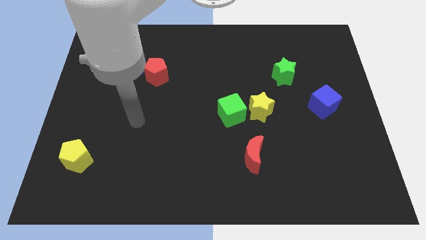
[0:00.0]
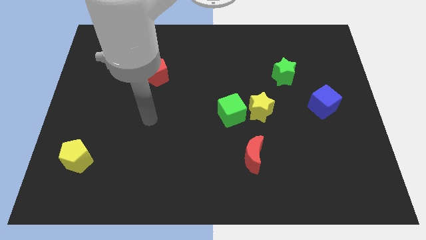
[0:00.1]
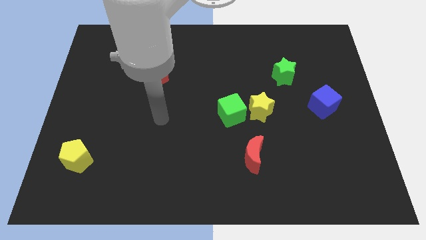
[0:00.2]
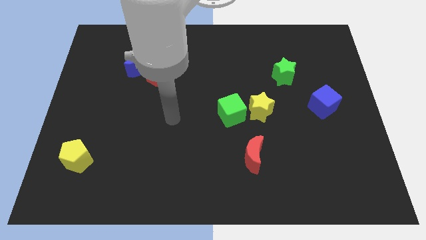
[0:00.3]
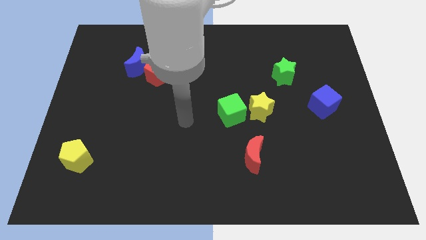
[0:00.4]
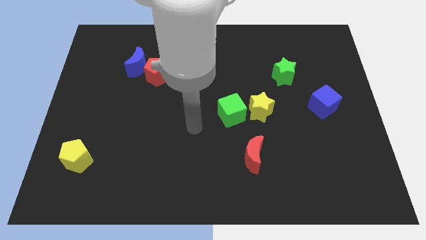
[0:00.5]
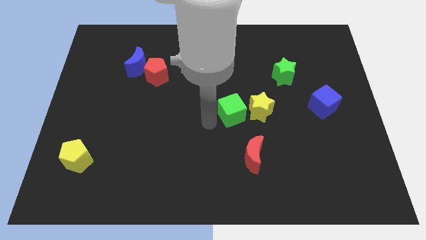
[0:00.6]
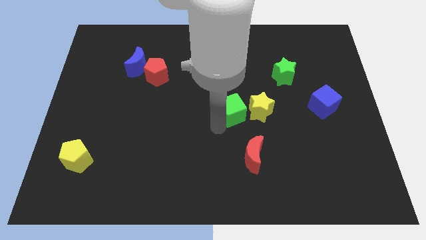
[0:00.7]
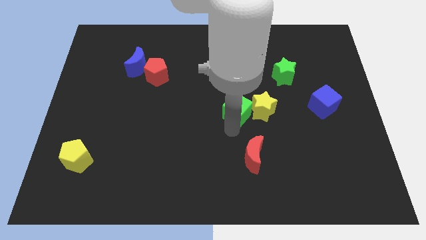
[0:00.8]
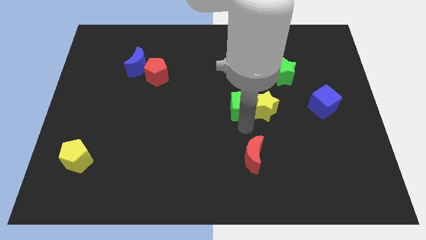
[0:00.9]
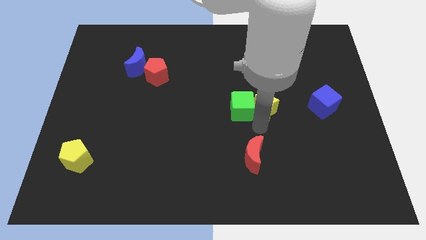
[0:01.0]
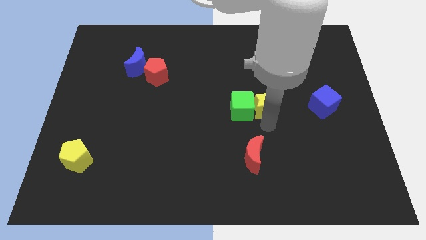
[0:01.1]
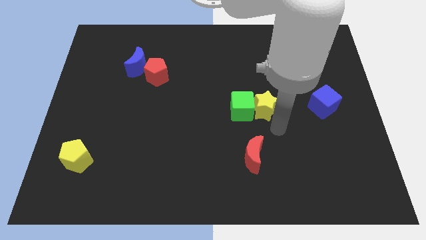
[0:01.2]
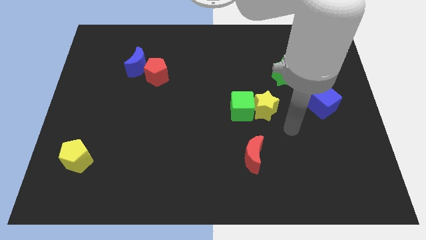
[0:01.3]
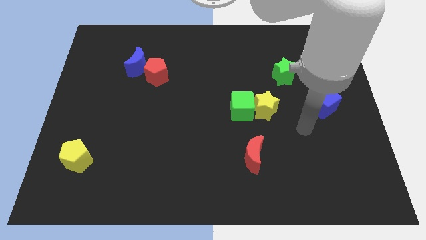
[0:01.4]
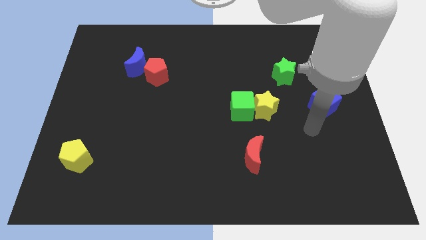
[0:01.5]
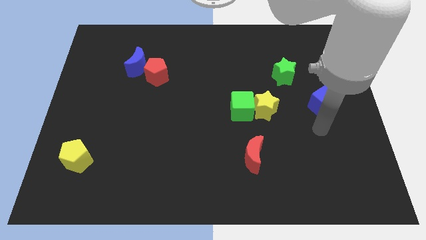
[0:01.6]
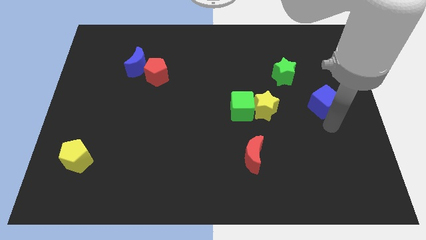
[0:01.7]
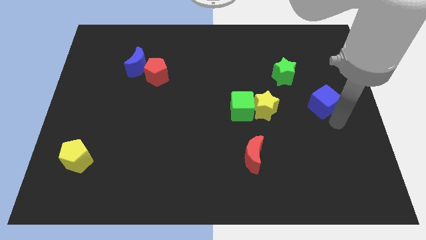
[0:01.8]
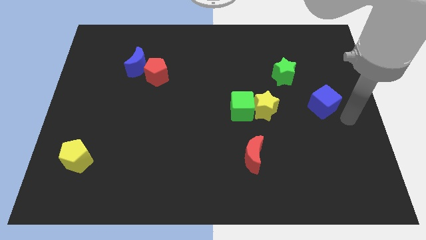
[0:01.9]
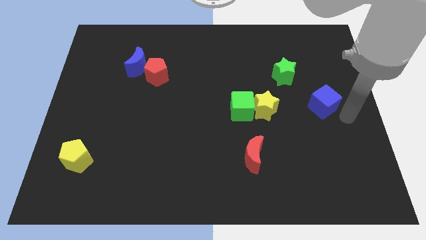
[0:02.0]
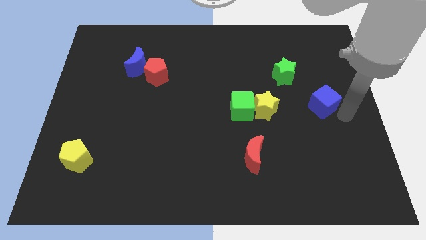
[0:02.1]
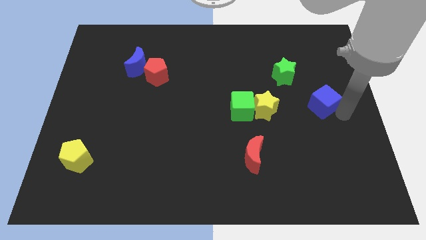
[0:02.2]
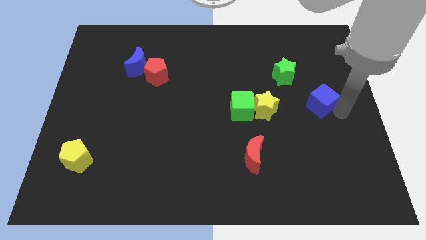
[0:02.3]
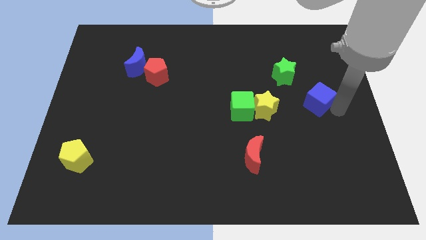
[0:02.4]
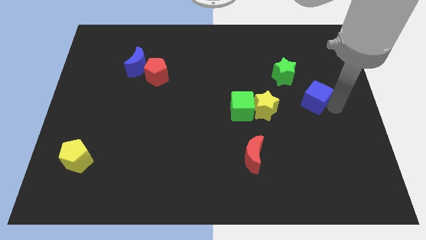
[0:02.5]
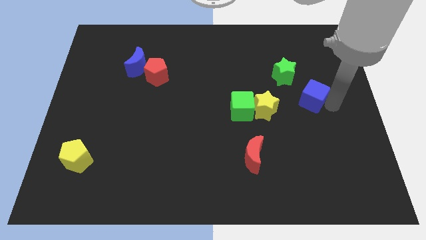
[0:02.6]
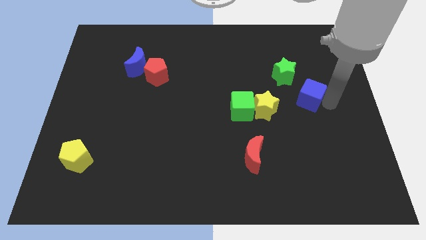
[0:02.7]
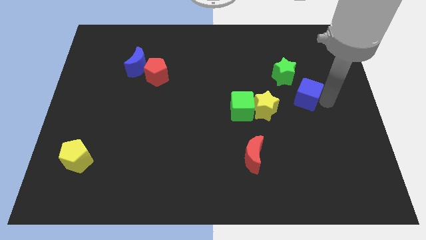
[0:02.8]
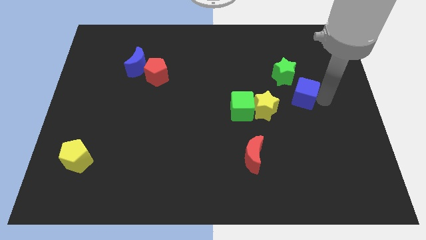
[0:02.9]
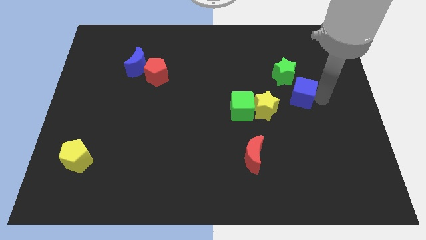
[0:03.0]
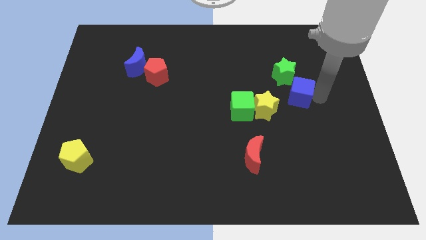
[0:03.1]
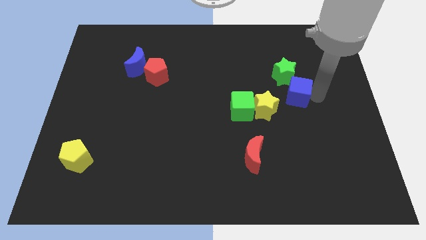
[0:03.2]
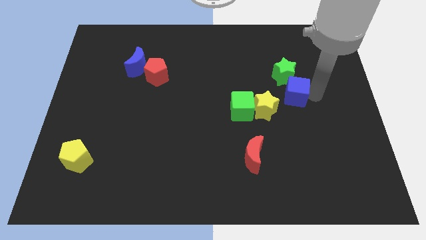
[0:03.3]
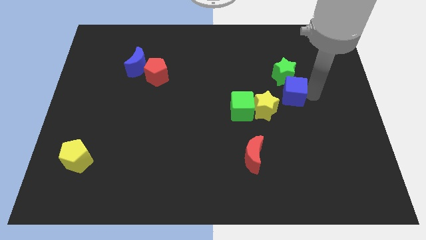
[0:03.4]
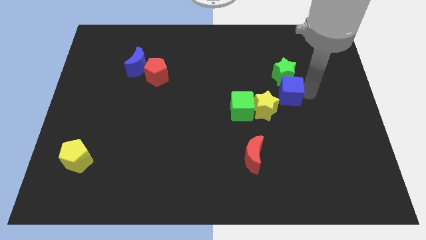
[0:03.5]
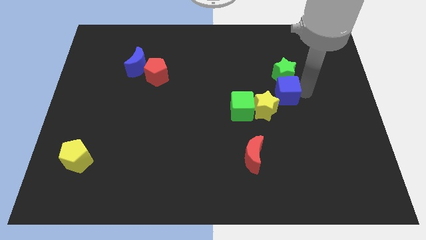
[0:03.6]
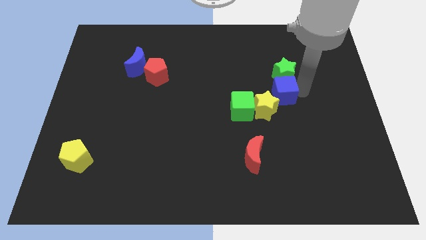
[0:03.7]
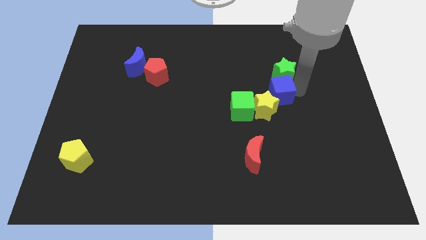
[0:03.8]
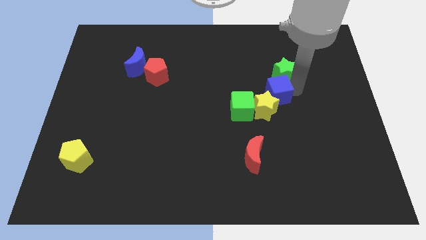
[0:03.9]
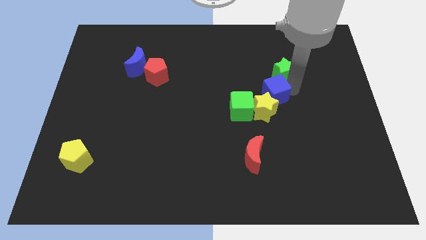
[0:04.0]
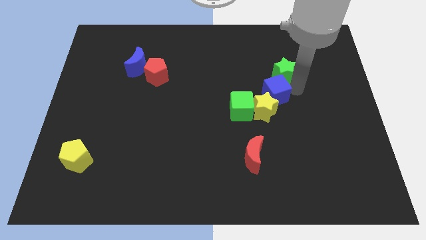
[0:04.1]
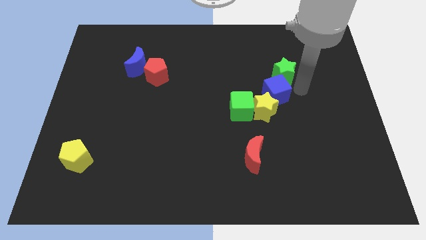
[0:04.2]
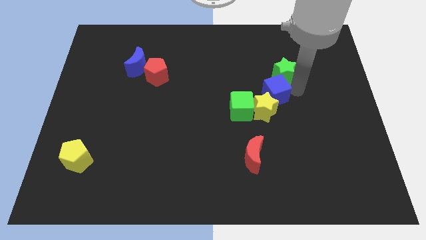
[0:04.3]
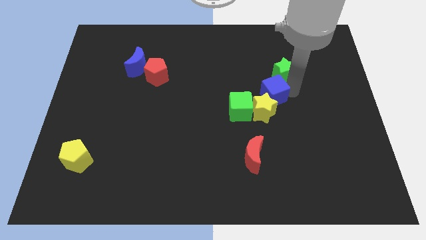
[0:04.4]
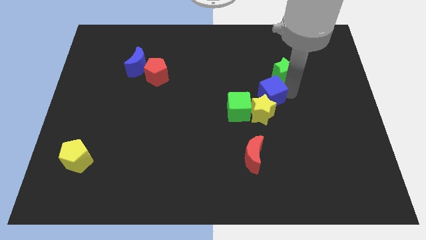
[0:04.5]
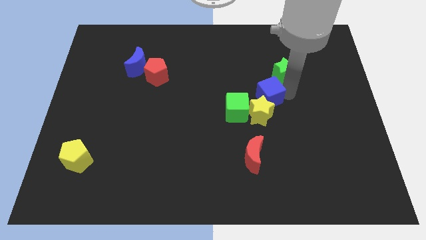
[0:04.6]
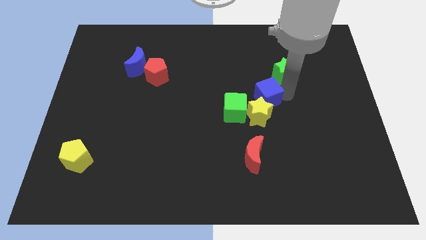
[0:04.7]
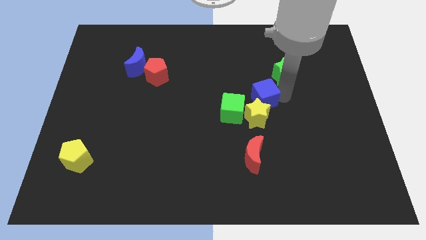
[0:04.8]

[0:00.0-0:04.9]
slide the blue cube to the middle

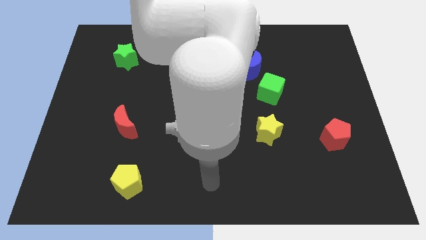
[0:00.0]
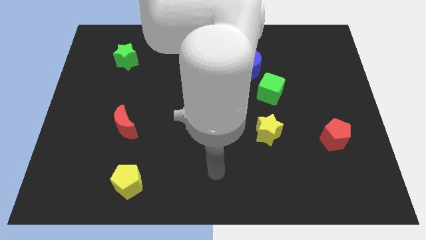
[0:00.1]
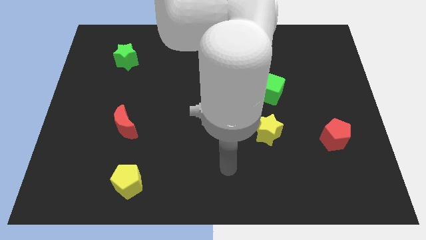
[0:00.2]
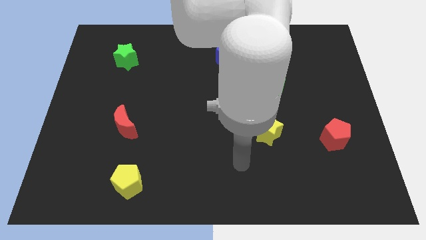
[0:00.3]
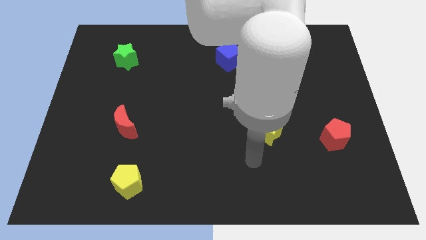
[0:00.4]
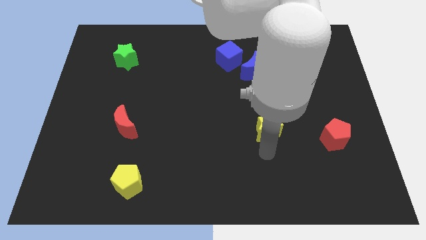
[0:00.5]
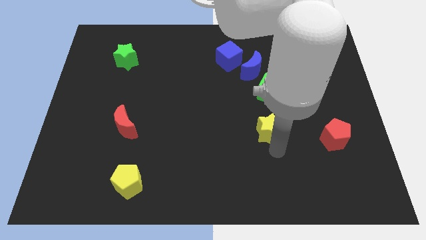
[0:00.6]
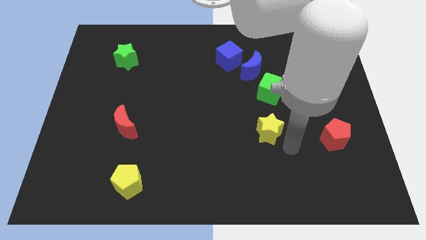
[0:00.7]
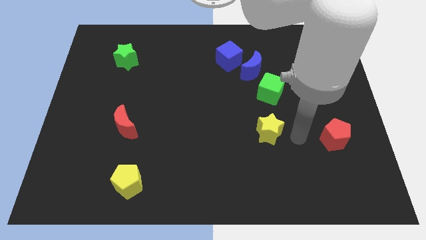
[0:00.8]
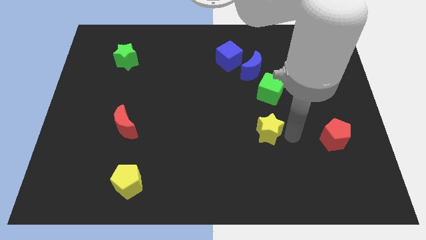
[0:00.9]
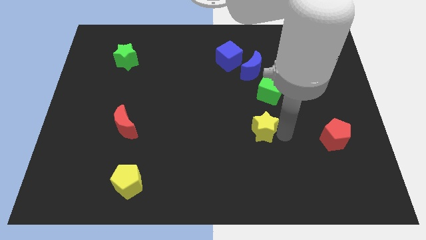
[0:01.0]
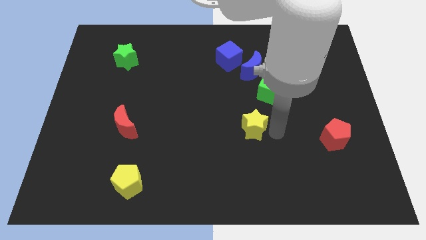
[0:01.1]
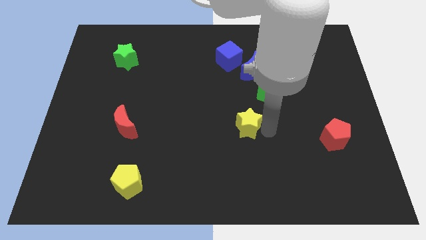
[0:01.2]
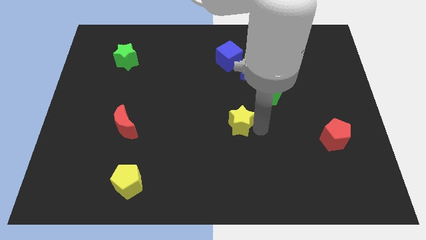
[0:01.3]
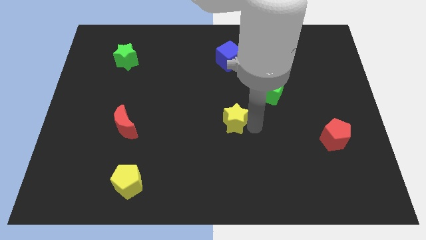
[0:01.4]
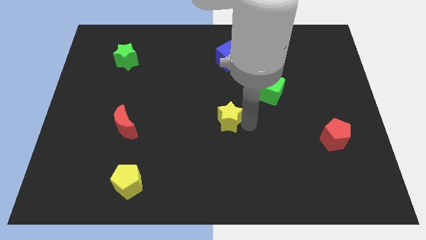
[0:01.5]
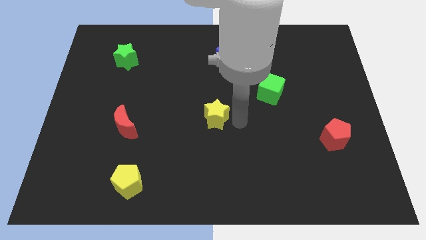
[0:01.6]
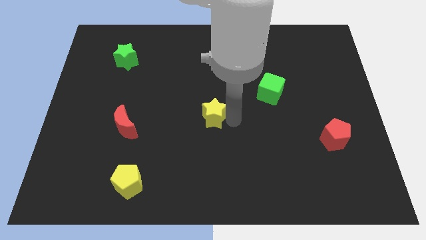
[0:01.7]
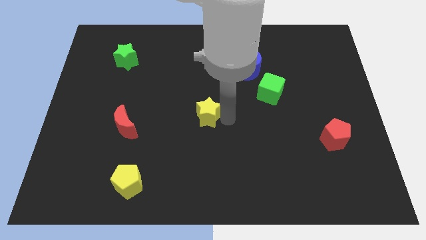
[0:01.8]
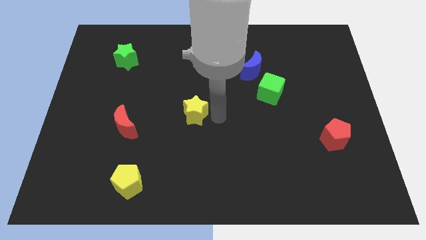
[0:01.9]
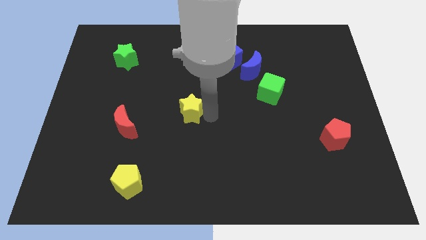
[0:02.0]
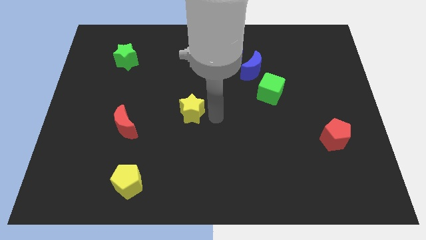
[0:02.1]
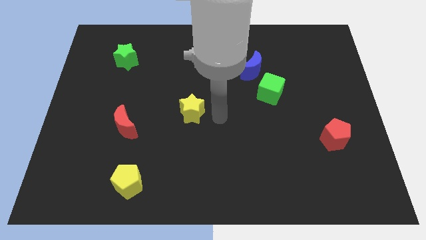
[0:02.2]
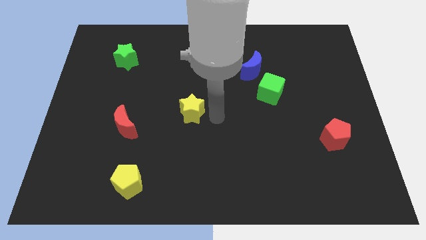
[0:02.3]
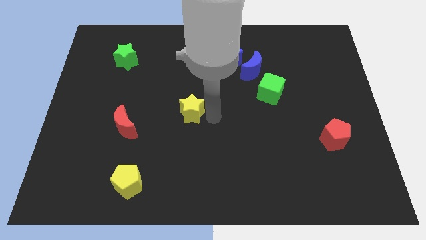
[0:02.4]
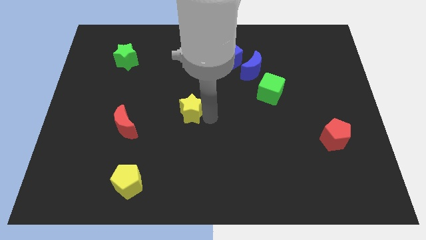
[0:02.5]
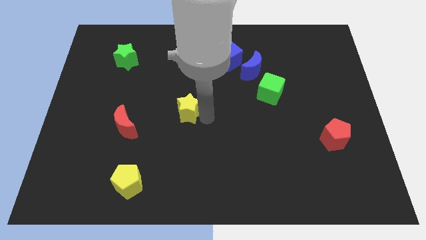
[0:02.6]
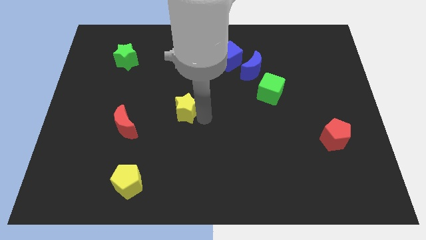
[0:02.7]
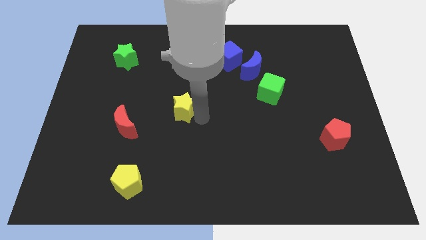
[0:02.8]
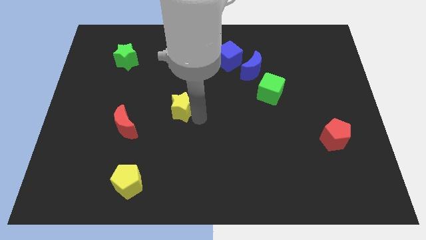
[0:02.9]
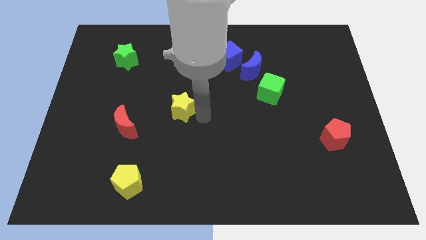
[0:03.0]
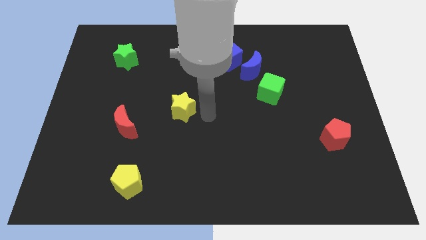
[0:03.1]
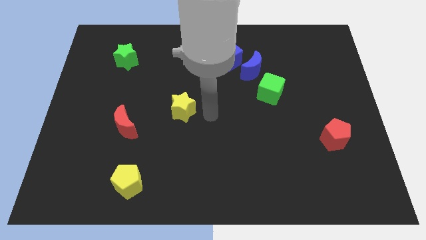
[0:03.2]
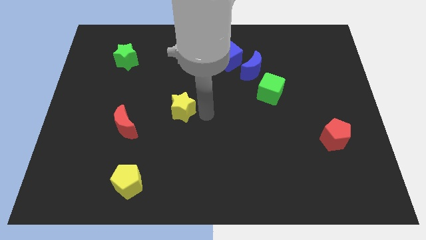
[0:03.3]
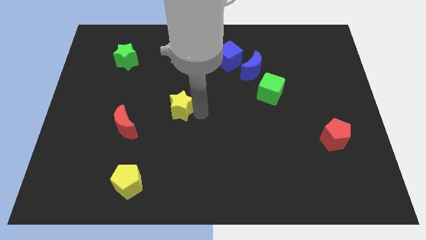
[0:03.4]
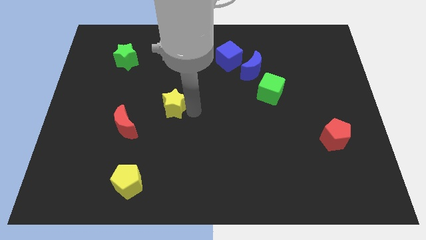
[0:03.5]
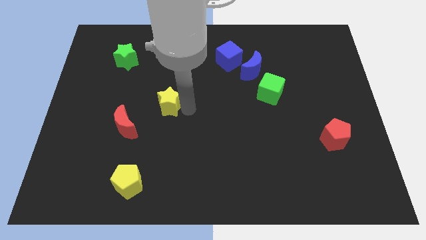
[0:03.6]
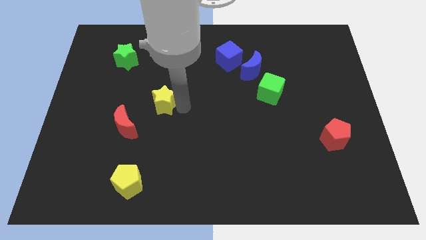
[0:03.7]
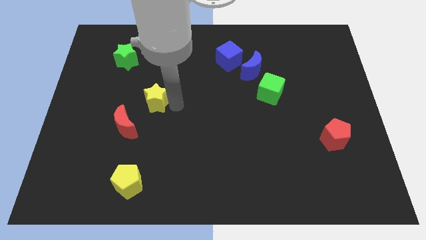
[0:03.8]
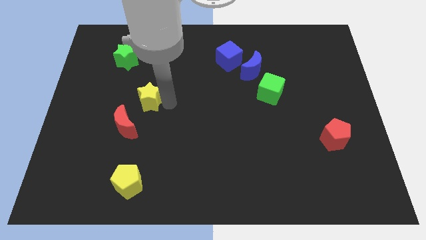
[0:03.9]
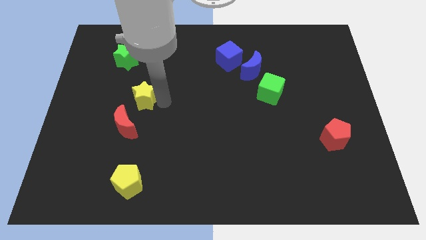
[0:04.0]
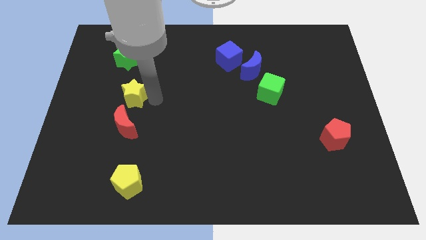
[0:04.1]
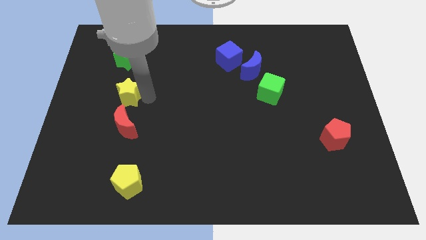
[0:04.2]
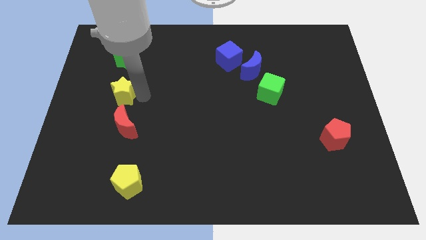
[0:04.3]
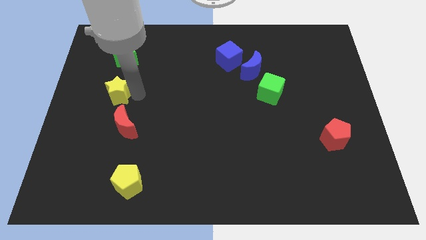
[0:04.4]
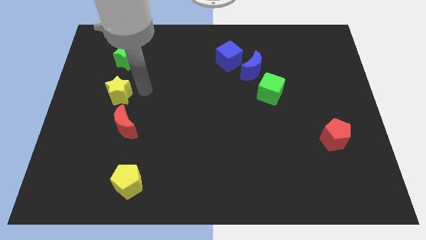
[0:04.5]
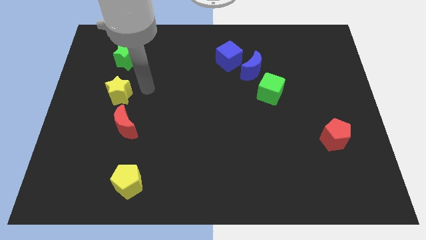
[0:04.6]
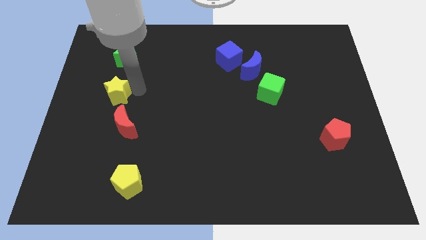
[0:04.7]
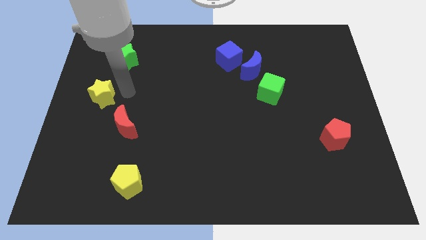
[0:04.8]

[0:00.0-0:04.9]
push the yellow star to the center left
